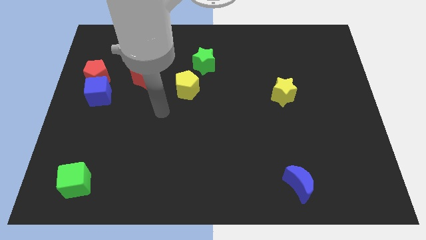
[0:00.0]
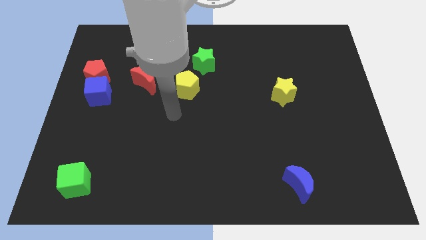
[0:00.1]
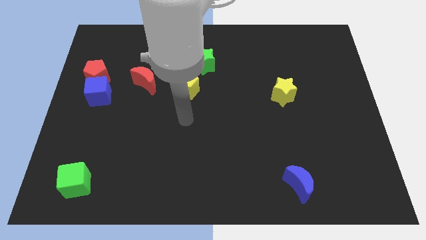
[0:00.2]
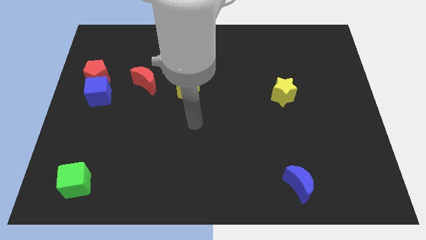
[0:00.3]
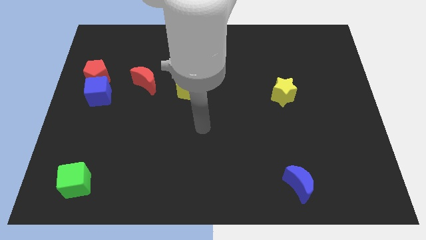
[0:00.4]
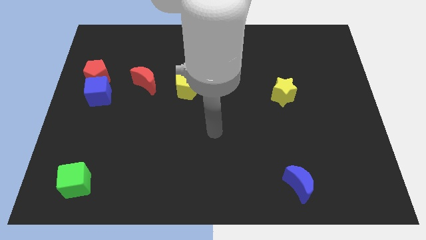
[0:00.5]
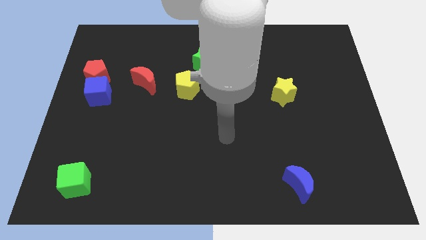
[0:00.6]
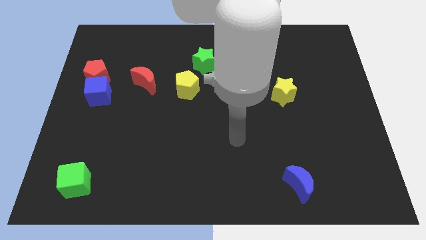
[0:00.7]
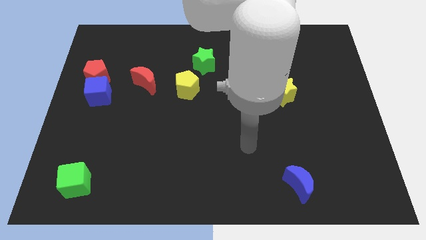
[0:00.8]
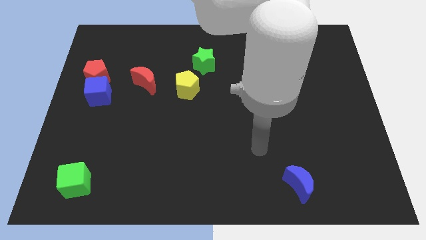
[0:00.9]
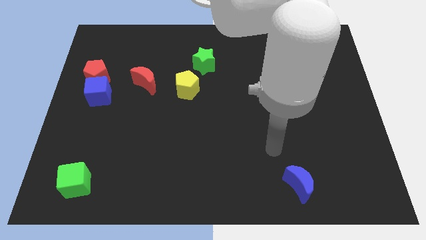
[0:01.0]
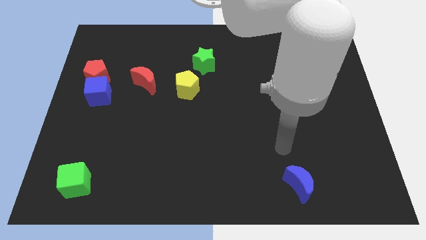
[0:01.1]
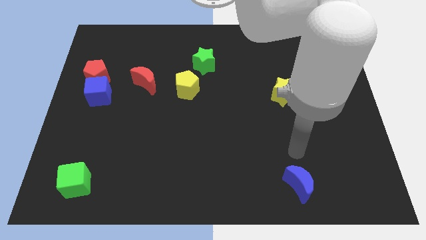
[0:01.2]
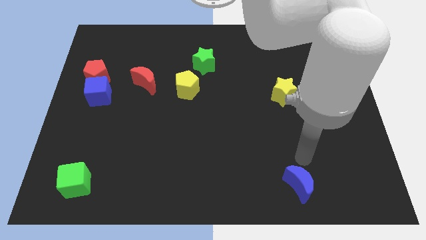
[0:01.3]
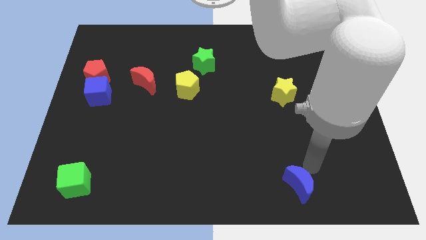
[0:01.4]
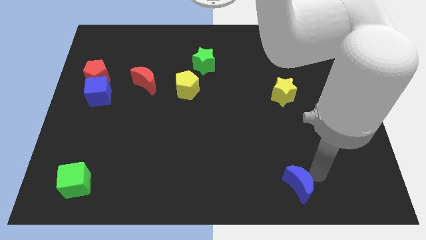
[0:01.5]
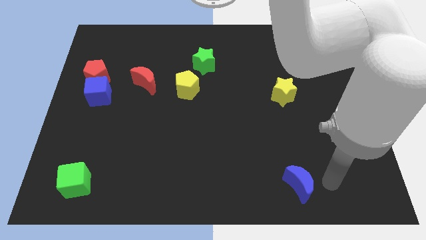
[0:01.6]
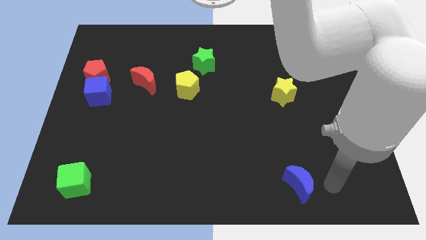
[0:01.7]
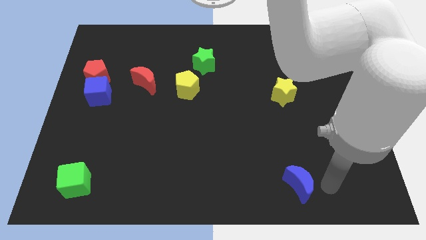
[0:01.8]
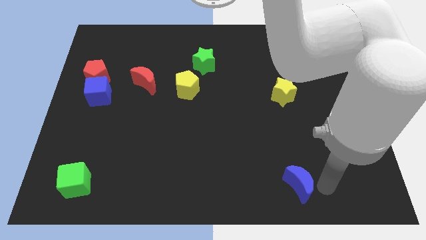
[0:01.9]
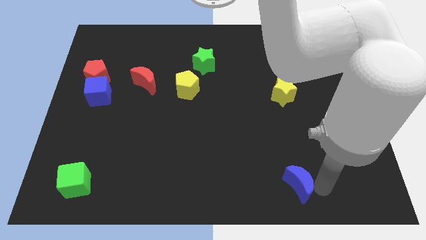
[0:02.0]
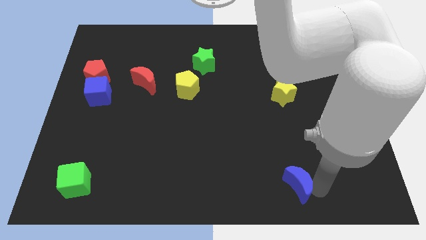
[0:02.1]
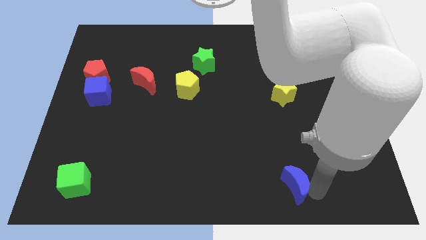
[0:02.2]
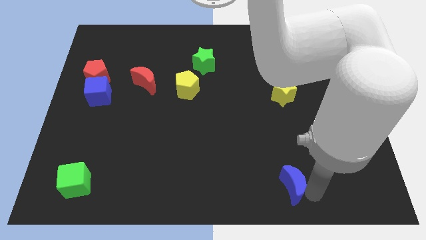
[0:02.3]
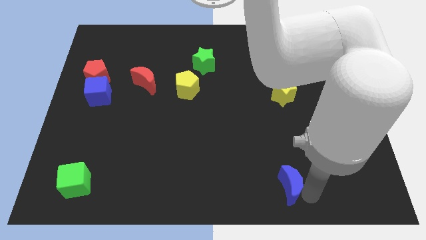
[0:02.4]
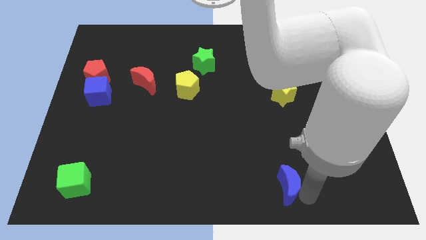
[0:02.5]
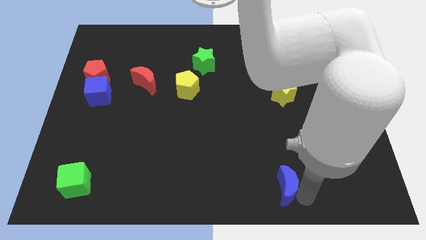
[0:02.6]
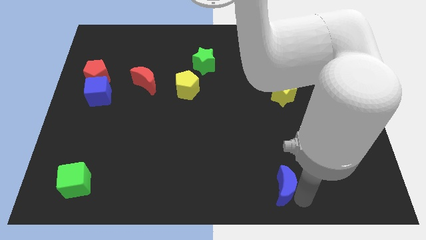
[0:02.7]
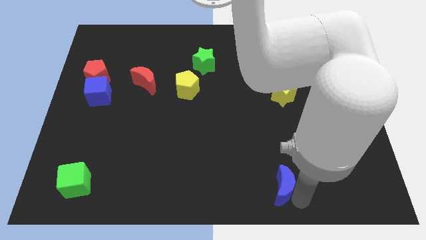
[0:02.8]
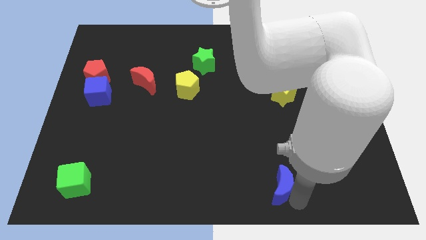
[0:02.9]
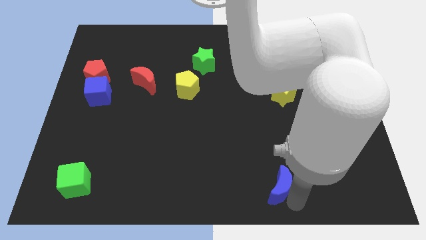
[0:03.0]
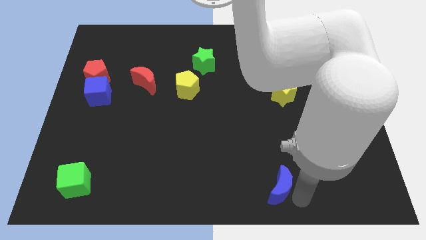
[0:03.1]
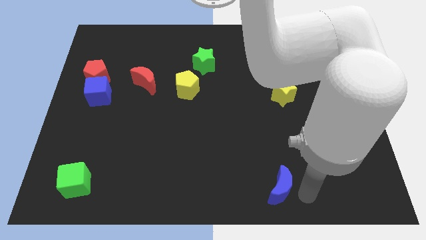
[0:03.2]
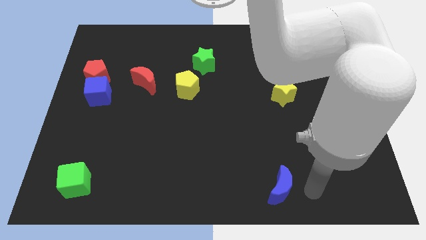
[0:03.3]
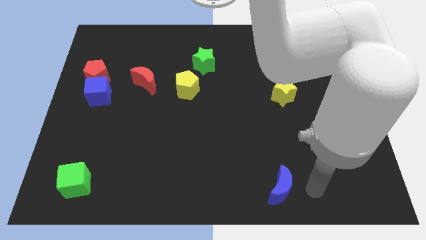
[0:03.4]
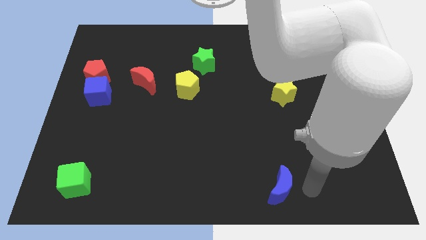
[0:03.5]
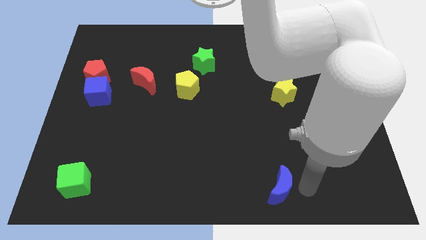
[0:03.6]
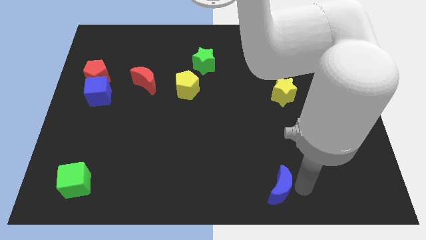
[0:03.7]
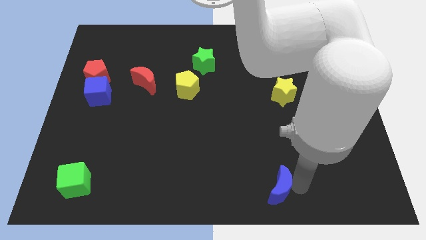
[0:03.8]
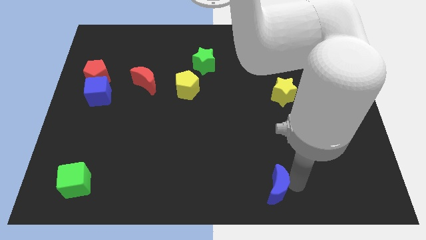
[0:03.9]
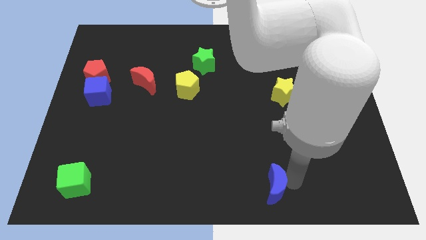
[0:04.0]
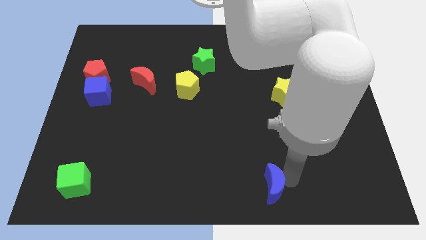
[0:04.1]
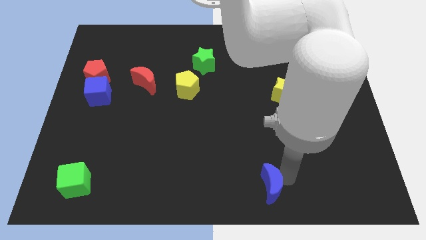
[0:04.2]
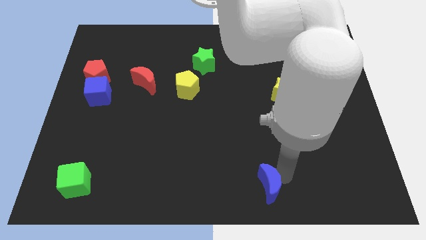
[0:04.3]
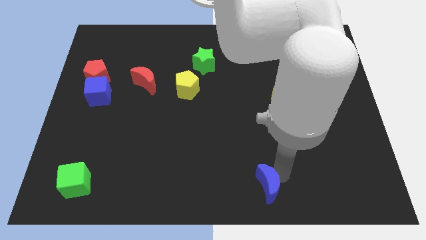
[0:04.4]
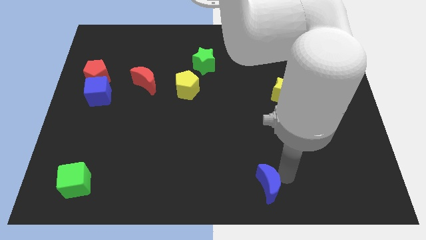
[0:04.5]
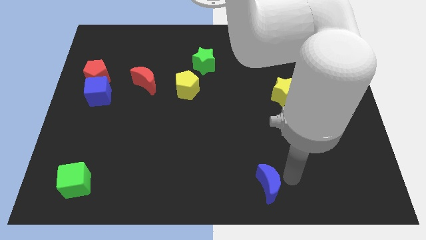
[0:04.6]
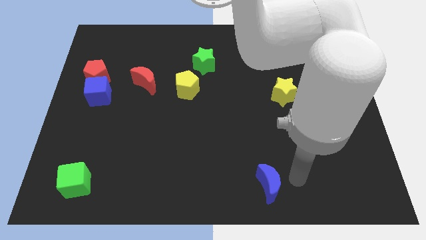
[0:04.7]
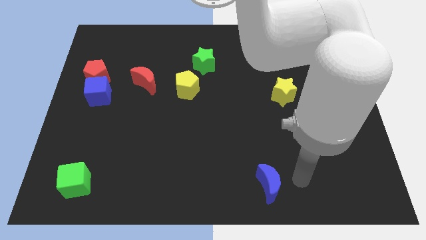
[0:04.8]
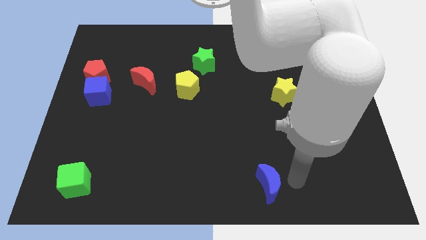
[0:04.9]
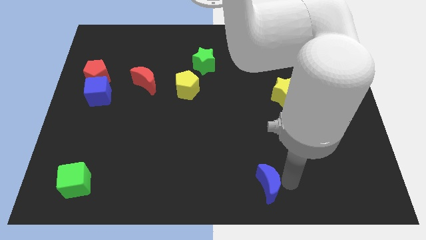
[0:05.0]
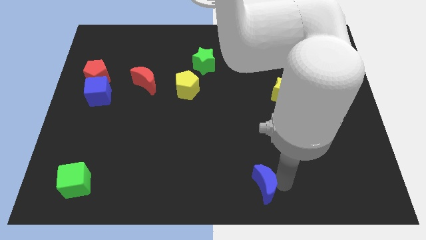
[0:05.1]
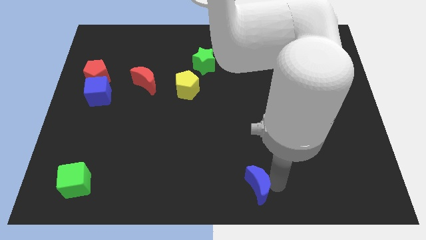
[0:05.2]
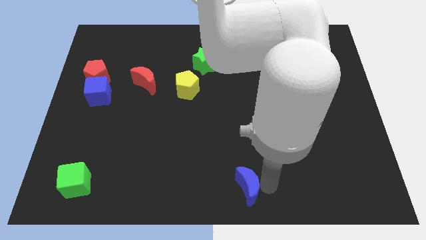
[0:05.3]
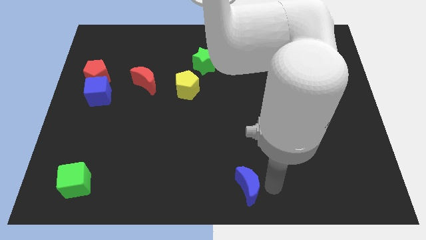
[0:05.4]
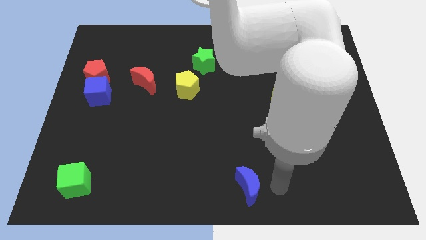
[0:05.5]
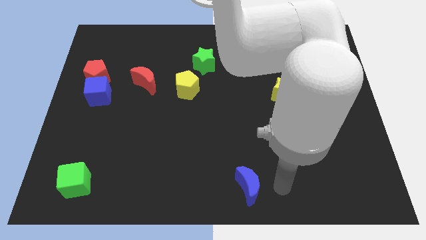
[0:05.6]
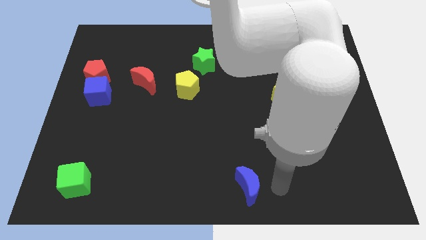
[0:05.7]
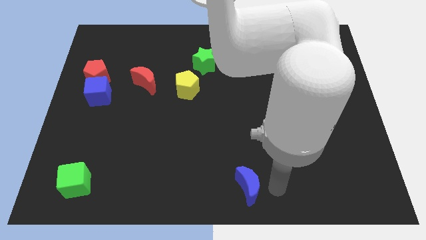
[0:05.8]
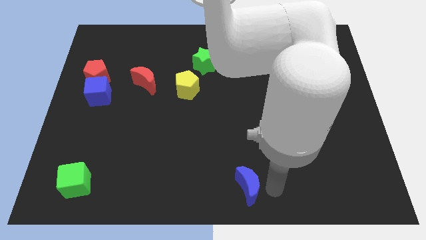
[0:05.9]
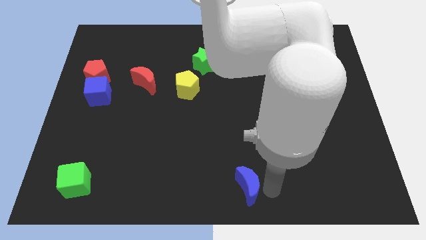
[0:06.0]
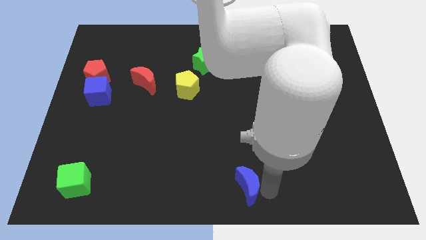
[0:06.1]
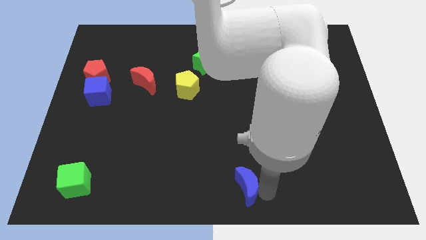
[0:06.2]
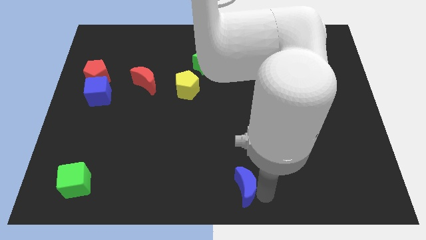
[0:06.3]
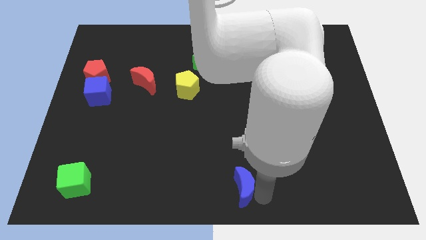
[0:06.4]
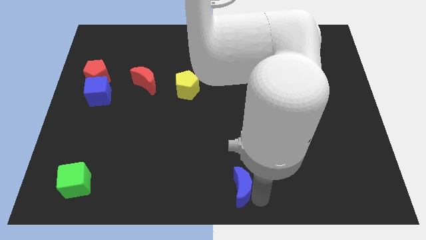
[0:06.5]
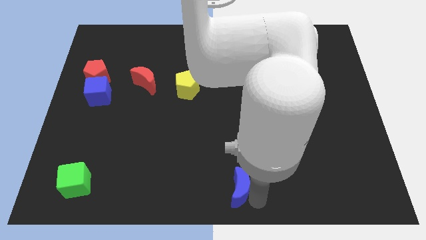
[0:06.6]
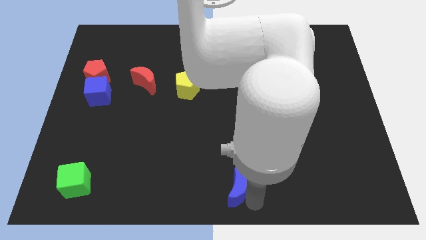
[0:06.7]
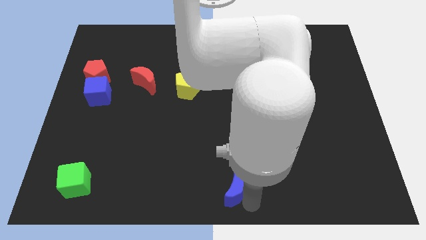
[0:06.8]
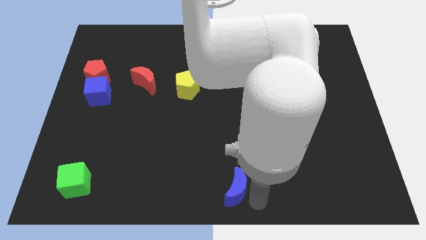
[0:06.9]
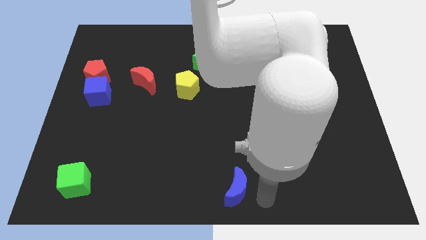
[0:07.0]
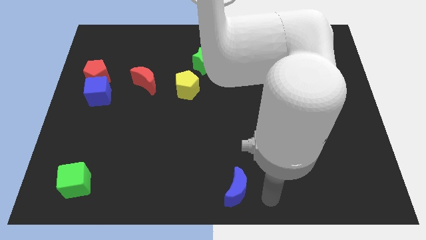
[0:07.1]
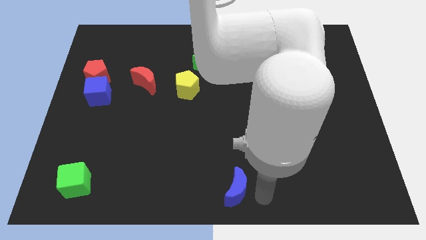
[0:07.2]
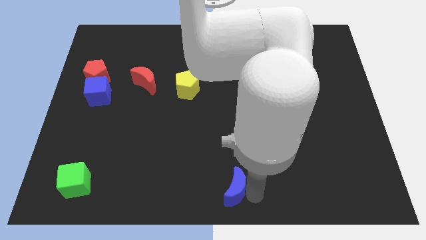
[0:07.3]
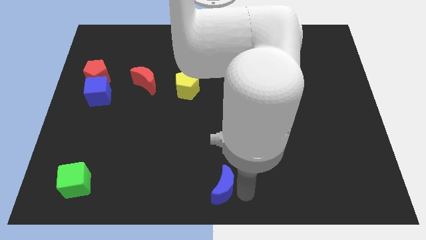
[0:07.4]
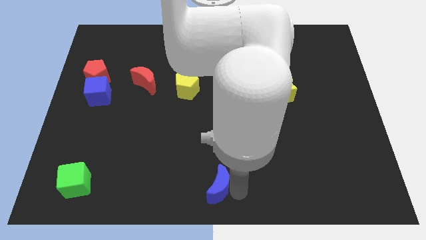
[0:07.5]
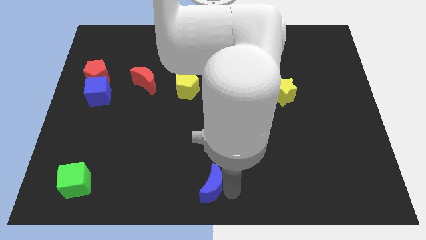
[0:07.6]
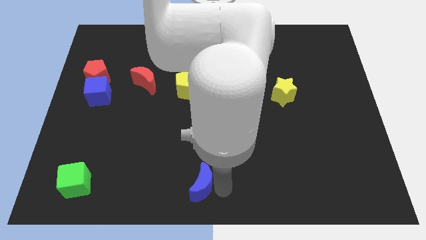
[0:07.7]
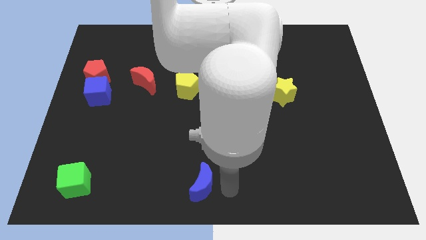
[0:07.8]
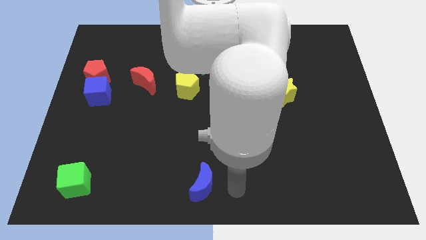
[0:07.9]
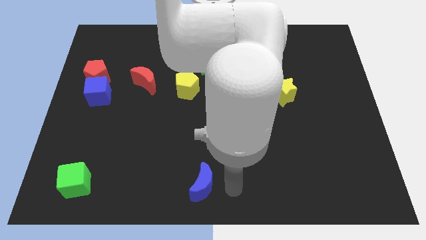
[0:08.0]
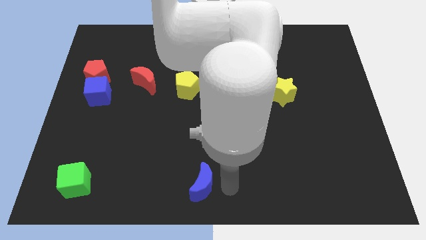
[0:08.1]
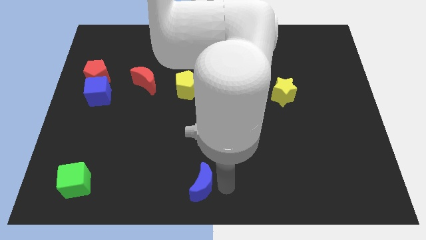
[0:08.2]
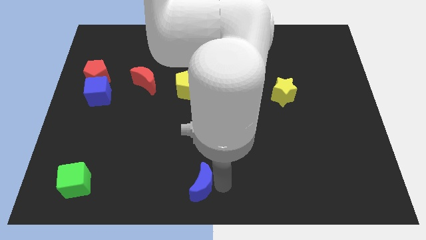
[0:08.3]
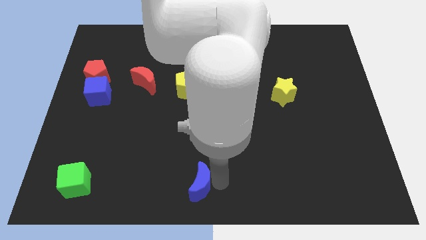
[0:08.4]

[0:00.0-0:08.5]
move the blue moon left
